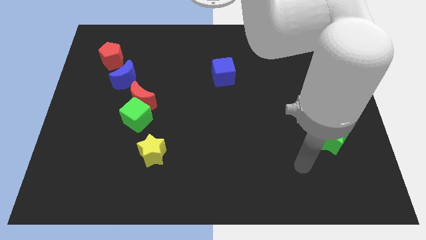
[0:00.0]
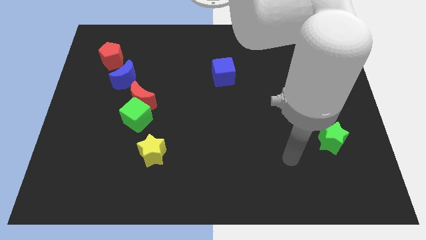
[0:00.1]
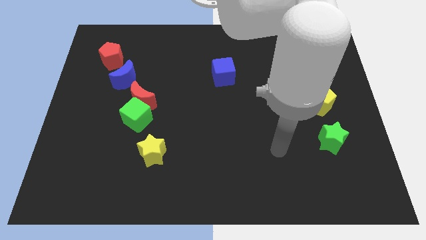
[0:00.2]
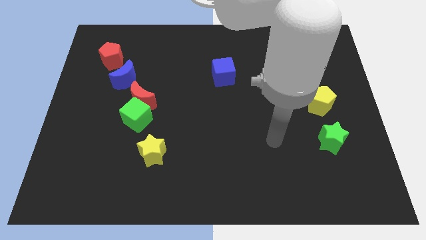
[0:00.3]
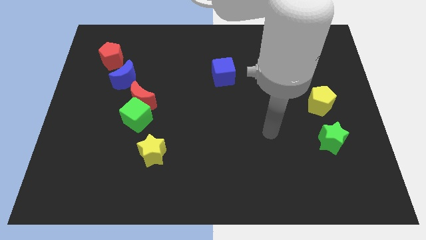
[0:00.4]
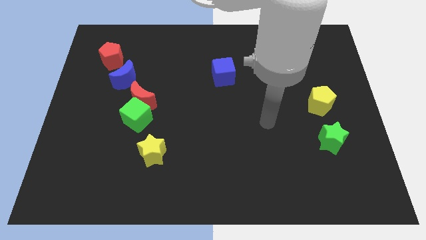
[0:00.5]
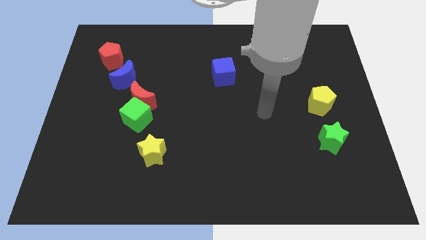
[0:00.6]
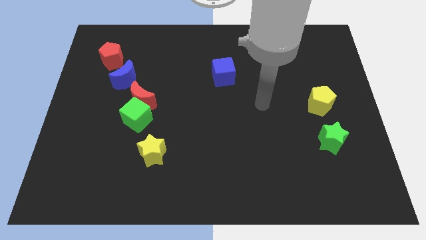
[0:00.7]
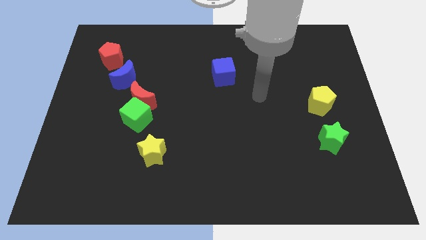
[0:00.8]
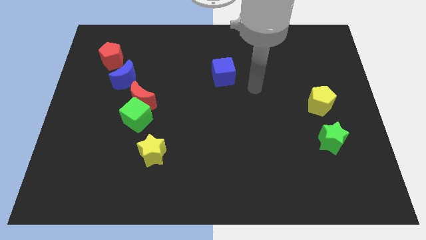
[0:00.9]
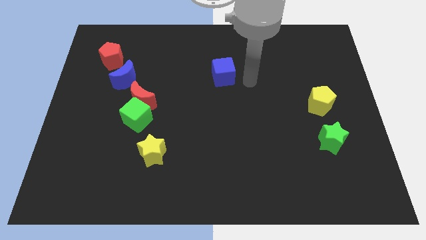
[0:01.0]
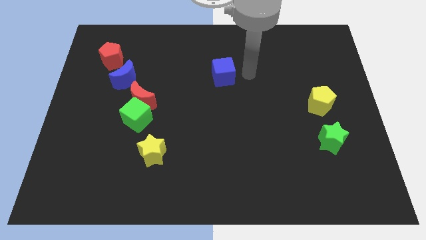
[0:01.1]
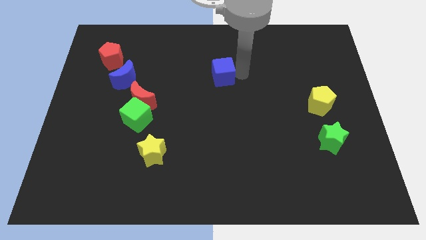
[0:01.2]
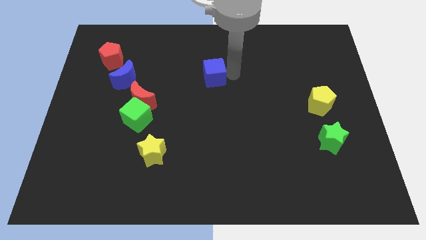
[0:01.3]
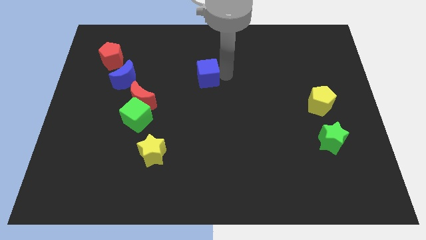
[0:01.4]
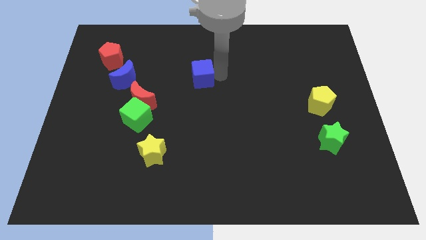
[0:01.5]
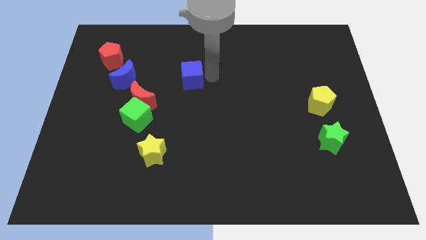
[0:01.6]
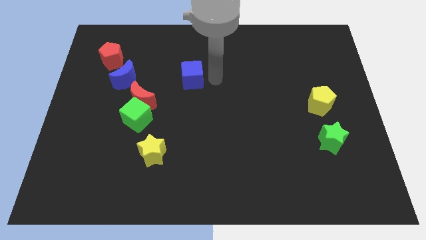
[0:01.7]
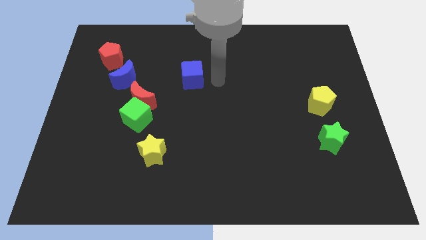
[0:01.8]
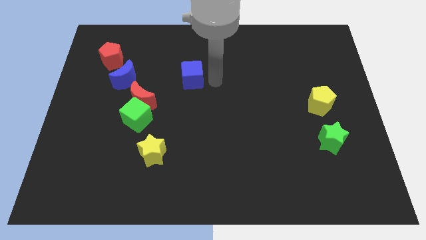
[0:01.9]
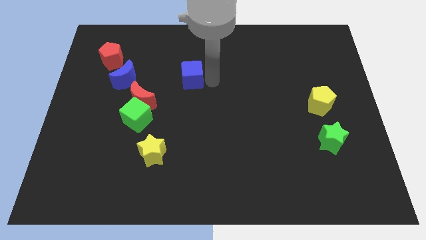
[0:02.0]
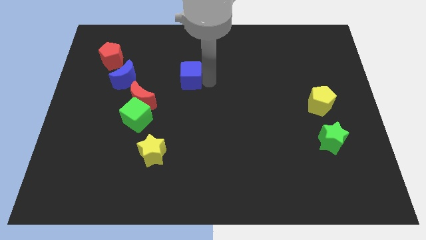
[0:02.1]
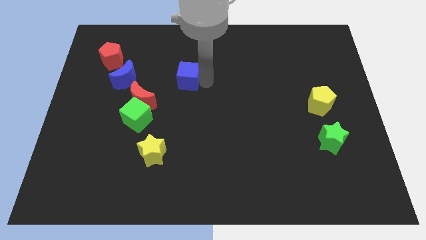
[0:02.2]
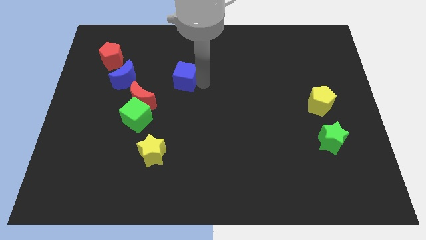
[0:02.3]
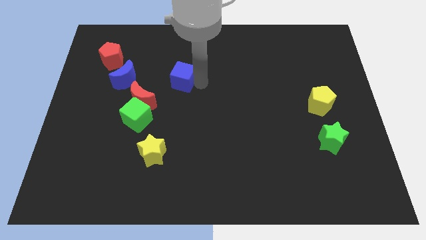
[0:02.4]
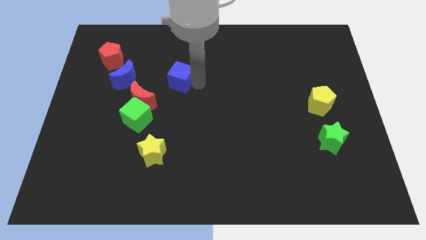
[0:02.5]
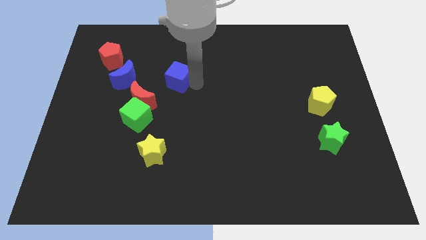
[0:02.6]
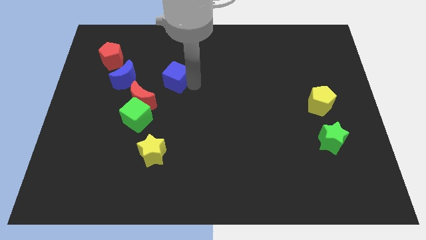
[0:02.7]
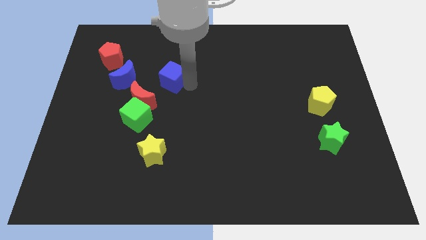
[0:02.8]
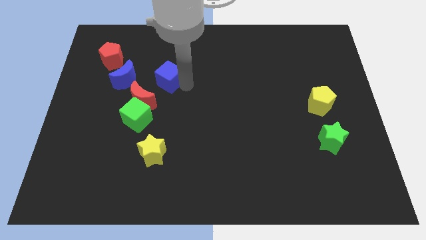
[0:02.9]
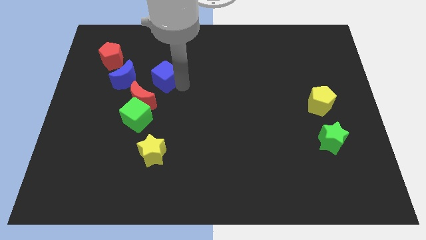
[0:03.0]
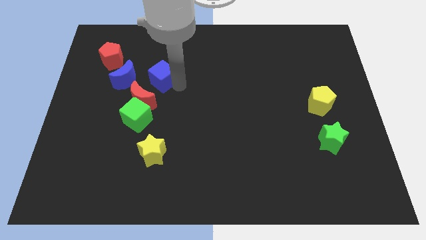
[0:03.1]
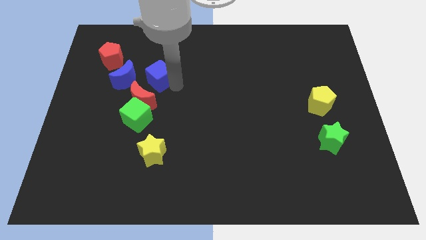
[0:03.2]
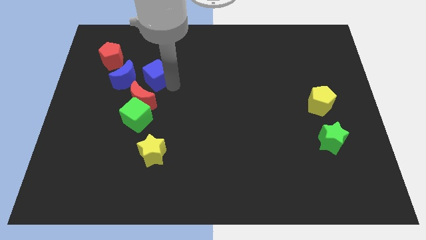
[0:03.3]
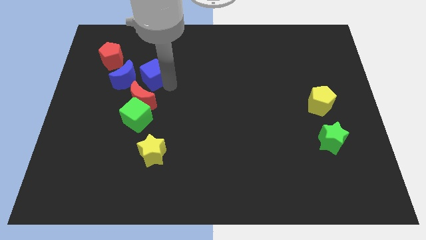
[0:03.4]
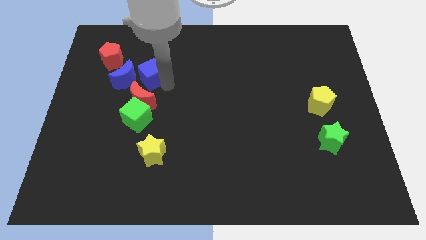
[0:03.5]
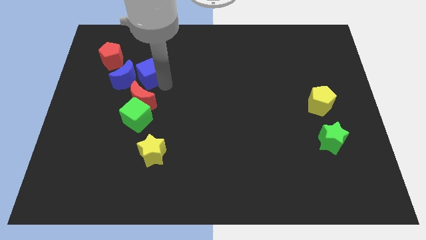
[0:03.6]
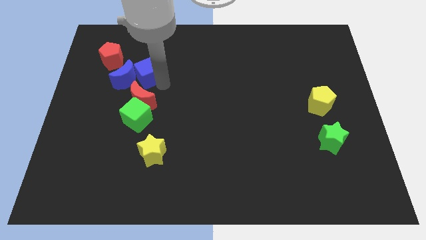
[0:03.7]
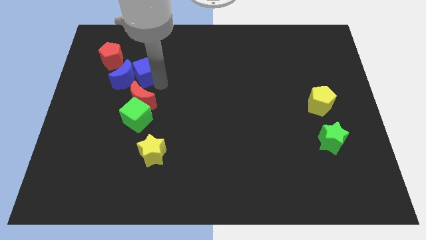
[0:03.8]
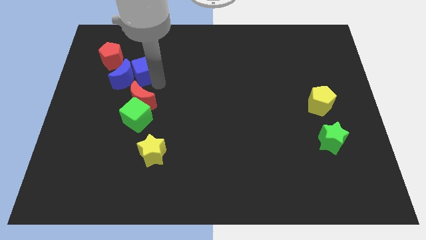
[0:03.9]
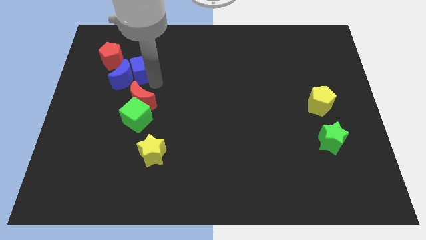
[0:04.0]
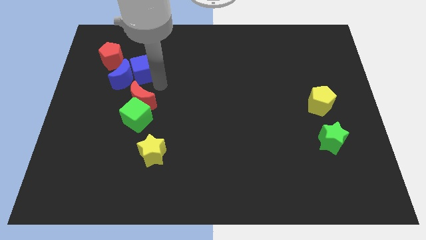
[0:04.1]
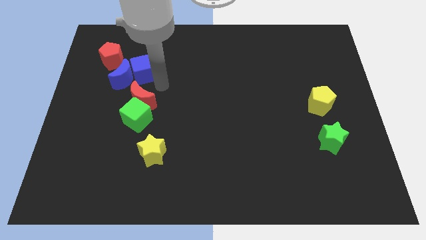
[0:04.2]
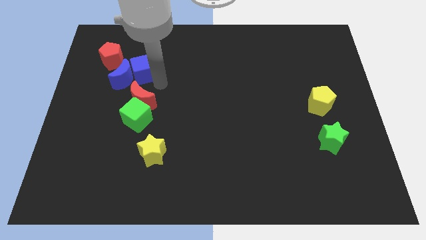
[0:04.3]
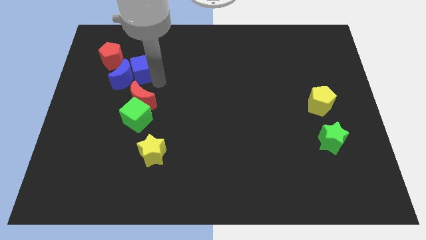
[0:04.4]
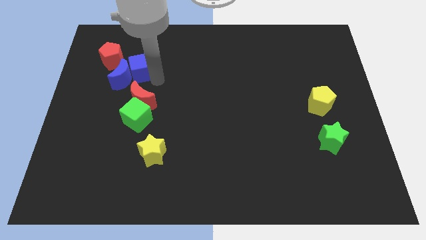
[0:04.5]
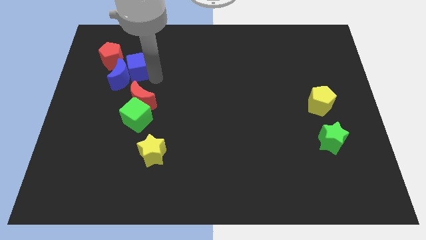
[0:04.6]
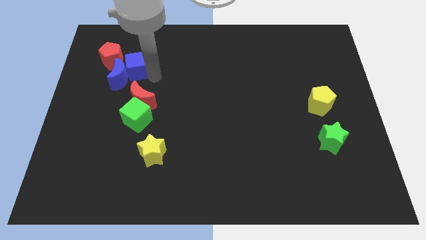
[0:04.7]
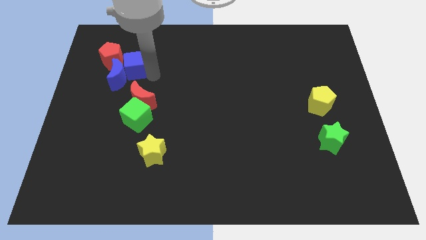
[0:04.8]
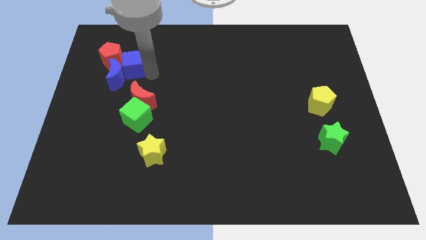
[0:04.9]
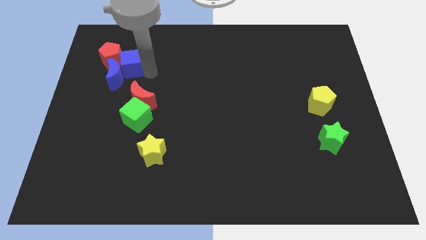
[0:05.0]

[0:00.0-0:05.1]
put the blue cube close to the red pentagon

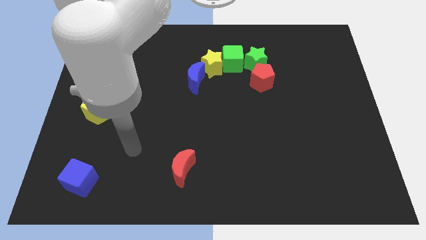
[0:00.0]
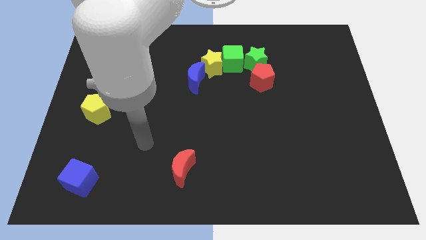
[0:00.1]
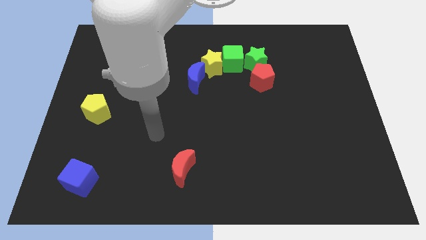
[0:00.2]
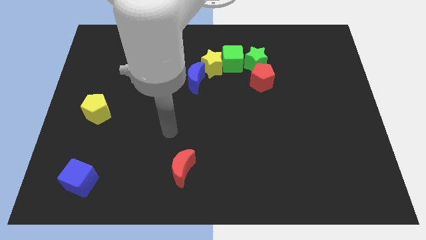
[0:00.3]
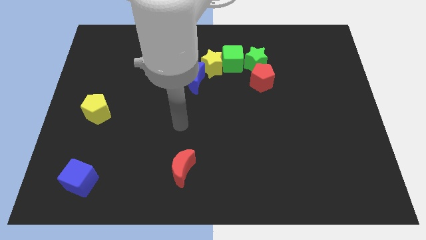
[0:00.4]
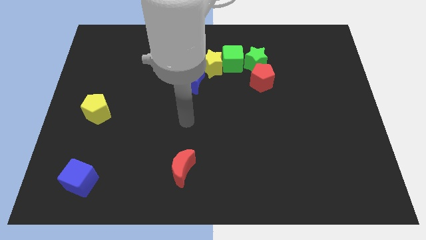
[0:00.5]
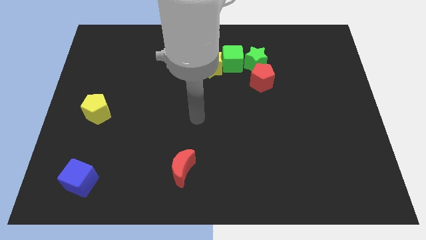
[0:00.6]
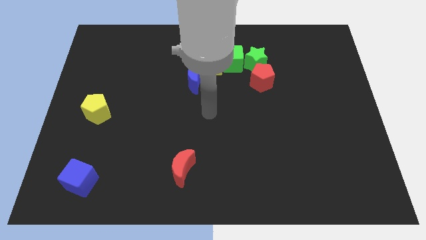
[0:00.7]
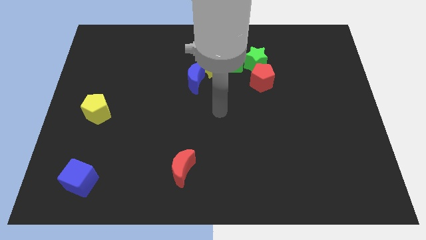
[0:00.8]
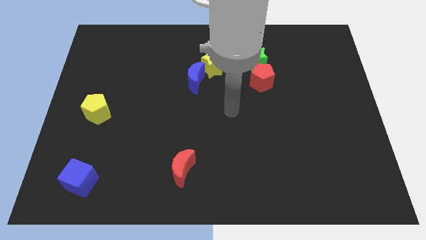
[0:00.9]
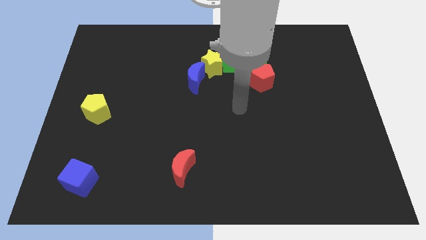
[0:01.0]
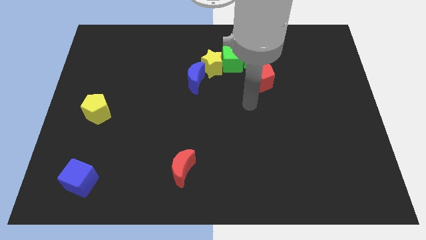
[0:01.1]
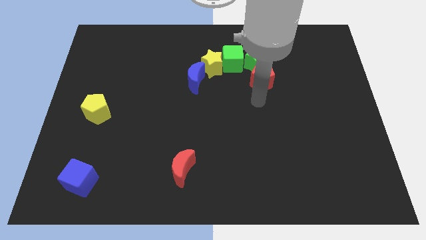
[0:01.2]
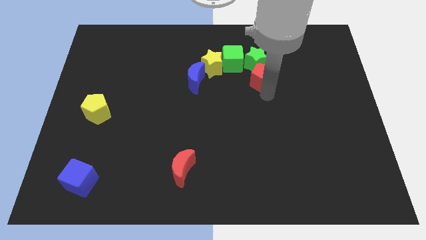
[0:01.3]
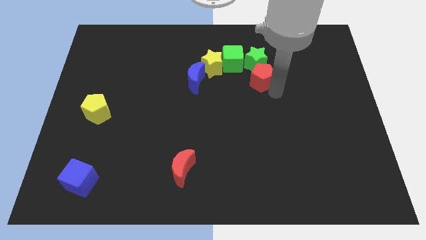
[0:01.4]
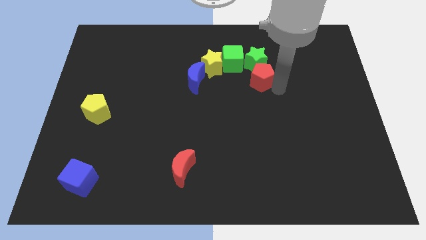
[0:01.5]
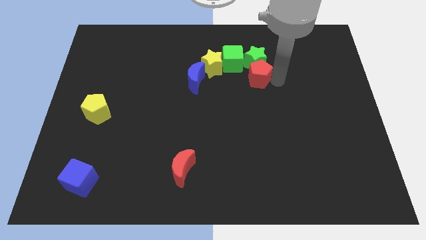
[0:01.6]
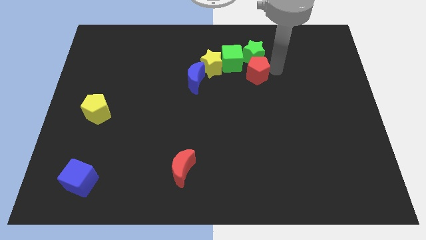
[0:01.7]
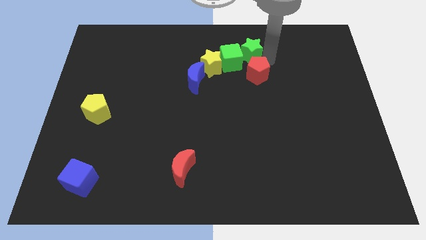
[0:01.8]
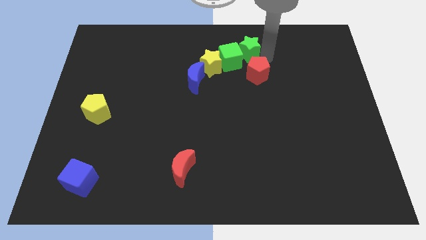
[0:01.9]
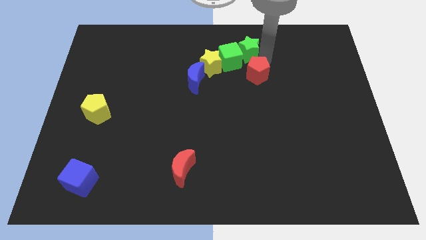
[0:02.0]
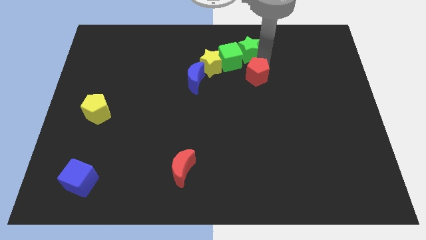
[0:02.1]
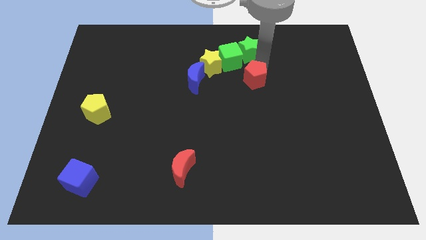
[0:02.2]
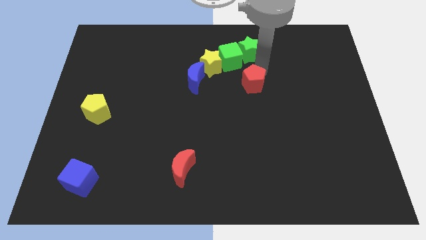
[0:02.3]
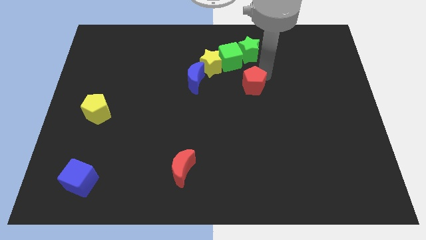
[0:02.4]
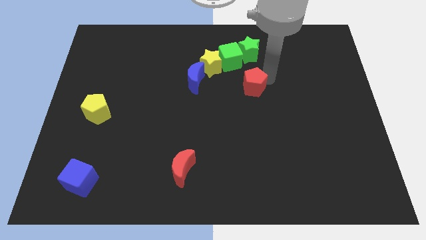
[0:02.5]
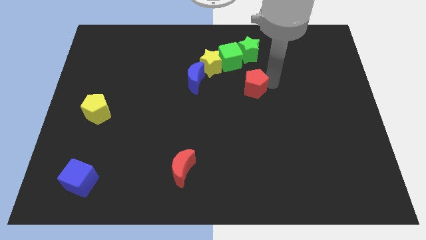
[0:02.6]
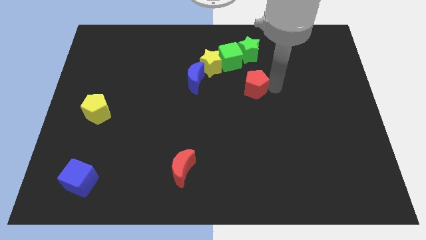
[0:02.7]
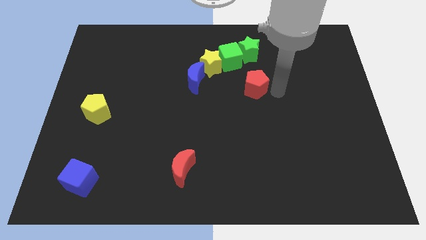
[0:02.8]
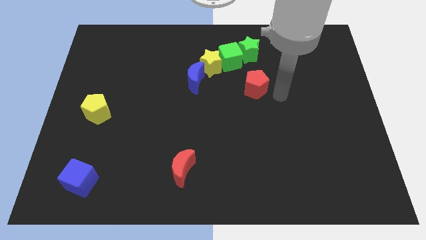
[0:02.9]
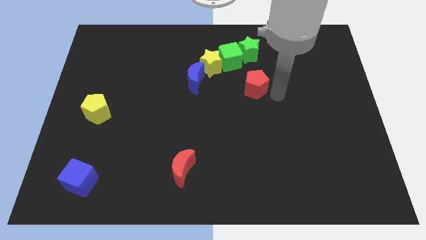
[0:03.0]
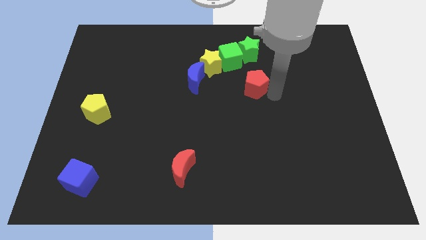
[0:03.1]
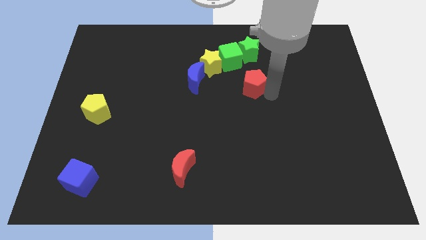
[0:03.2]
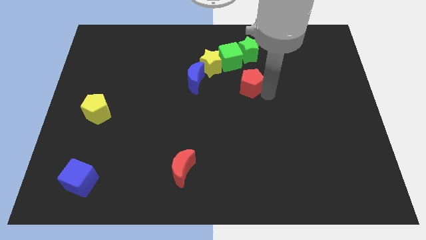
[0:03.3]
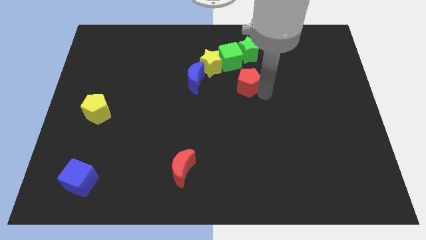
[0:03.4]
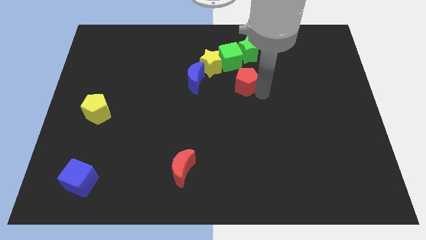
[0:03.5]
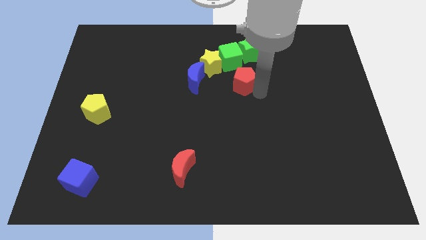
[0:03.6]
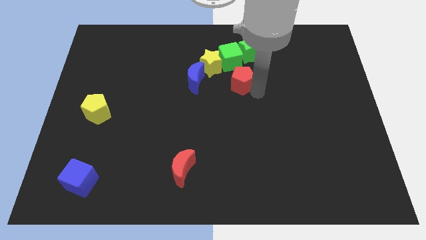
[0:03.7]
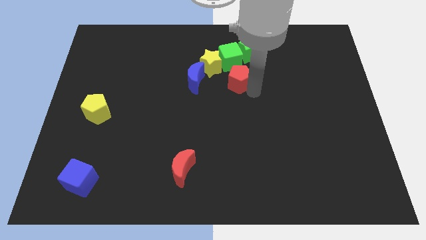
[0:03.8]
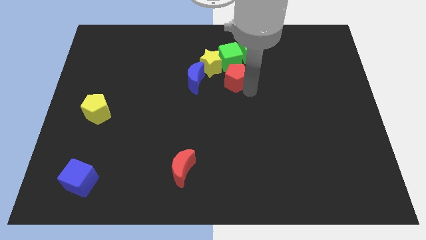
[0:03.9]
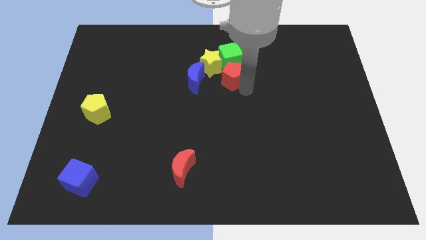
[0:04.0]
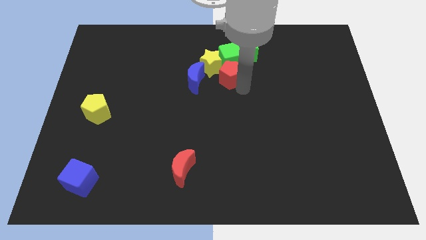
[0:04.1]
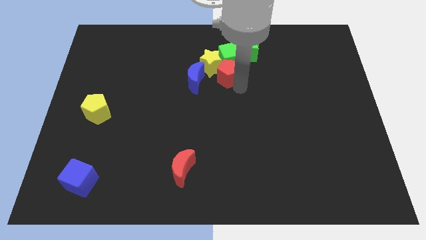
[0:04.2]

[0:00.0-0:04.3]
move the red pentagon to the yellow star
